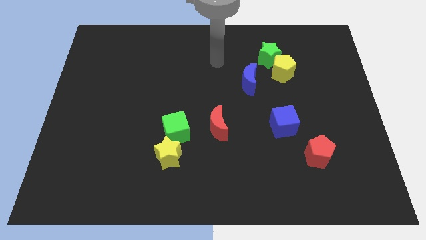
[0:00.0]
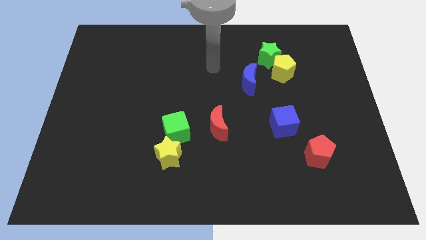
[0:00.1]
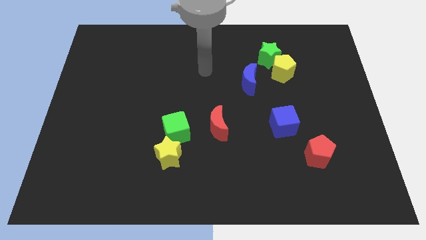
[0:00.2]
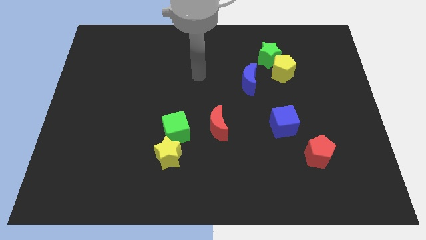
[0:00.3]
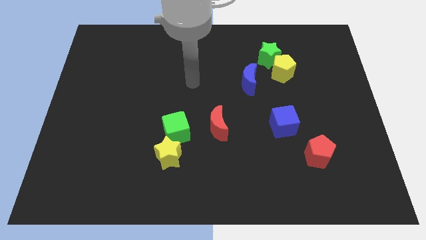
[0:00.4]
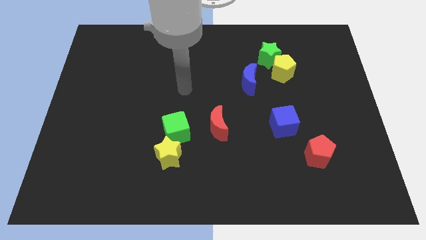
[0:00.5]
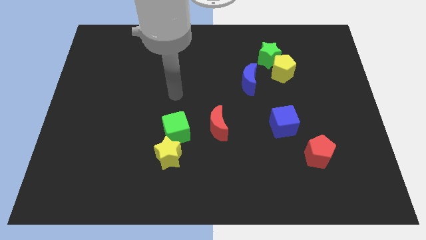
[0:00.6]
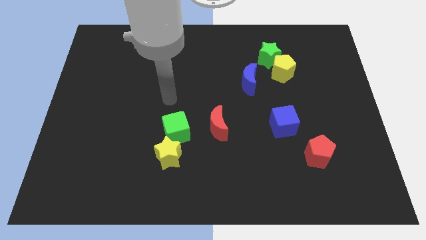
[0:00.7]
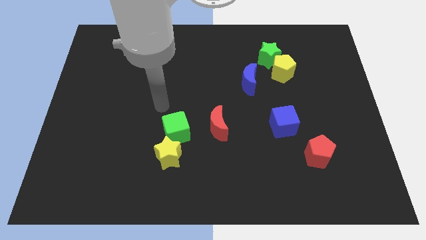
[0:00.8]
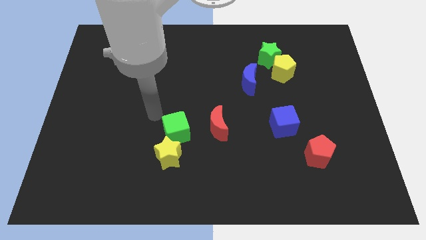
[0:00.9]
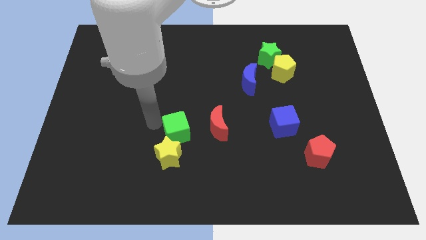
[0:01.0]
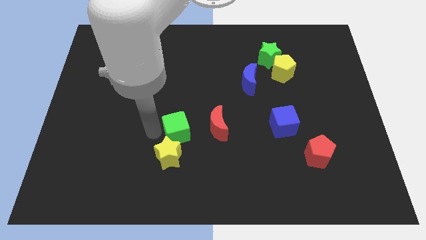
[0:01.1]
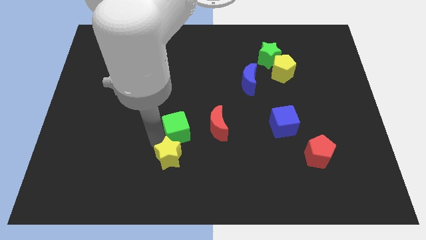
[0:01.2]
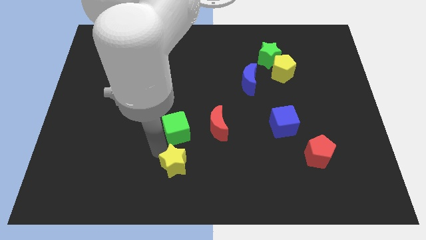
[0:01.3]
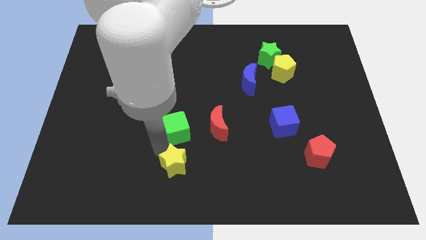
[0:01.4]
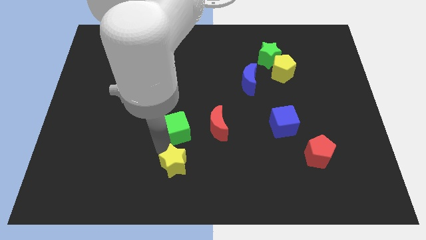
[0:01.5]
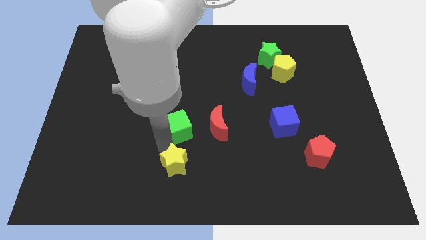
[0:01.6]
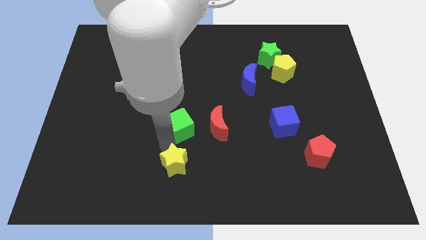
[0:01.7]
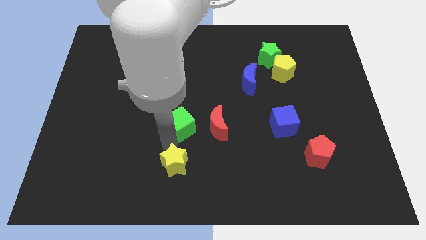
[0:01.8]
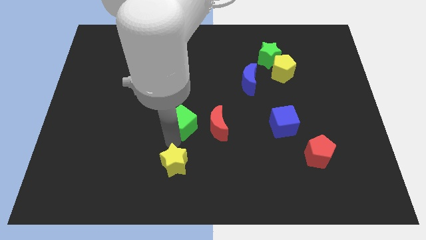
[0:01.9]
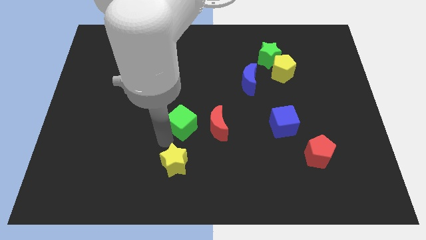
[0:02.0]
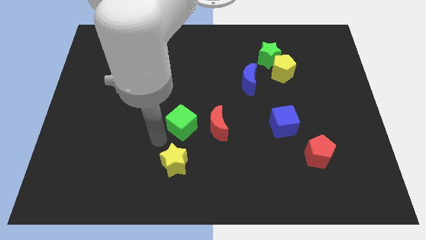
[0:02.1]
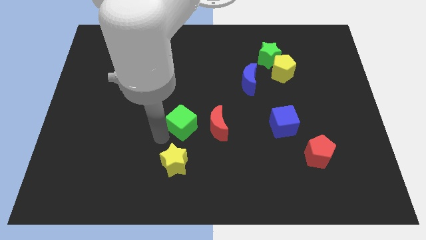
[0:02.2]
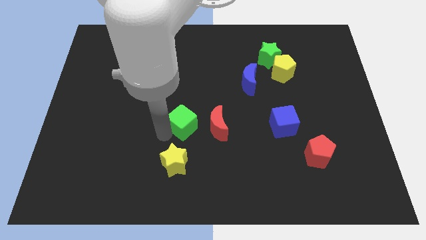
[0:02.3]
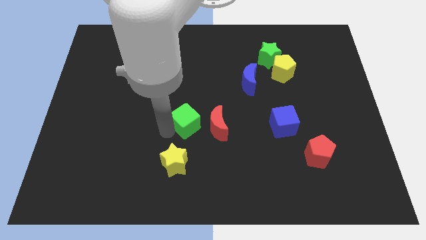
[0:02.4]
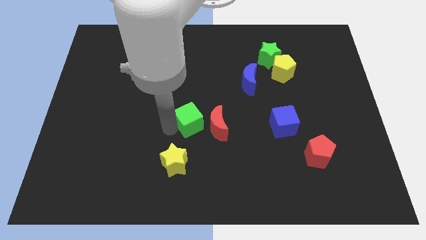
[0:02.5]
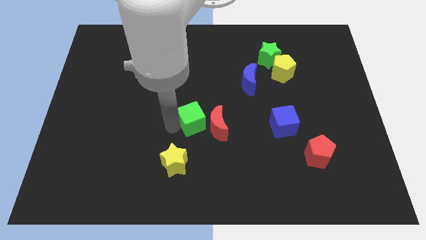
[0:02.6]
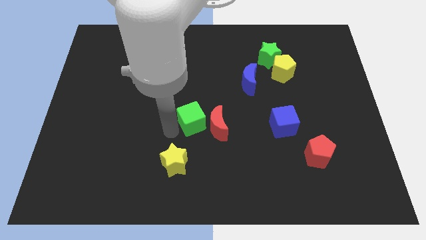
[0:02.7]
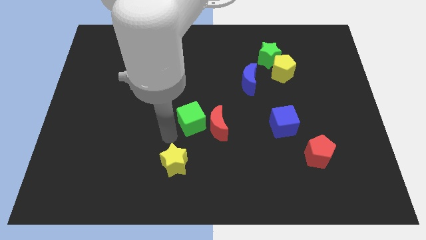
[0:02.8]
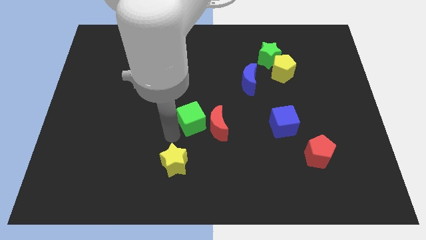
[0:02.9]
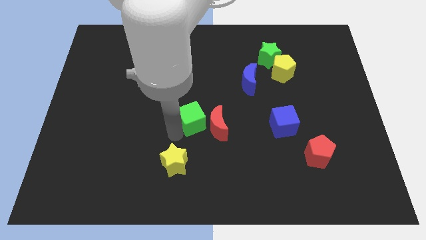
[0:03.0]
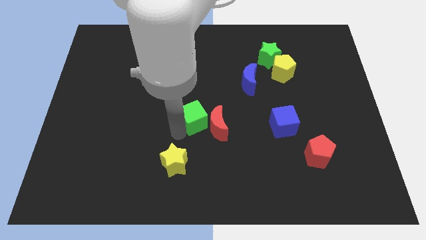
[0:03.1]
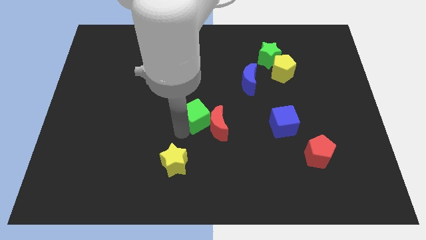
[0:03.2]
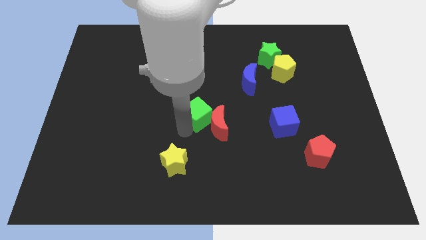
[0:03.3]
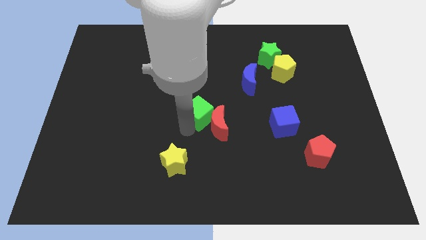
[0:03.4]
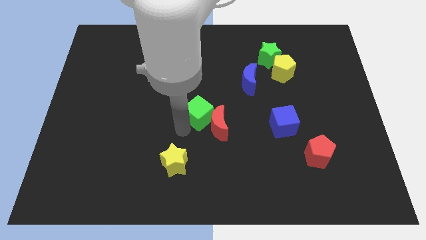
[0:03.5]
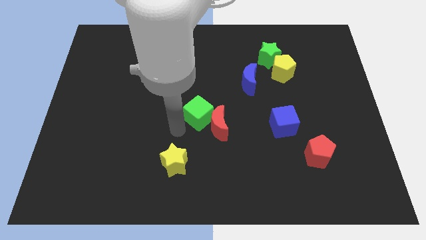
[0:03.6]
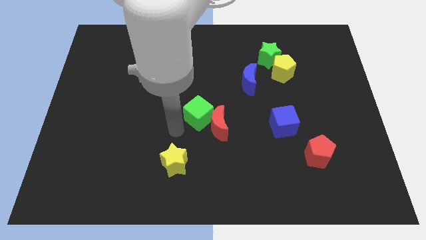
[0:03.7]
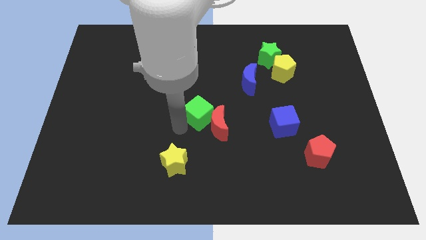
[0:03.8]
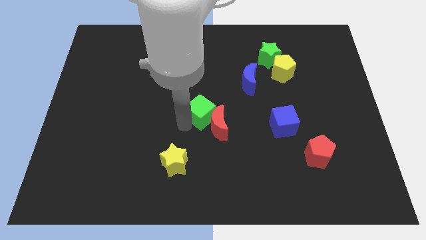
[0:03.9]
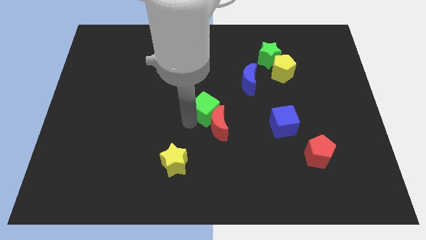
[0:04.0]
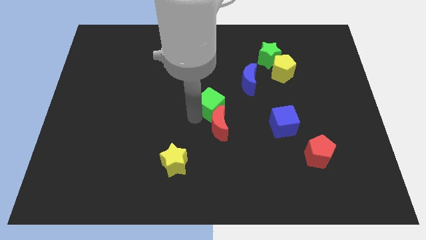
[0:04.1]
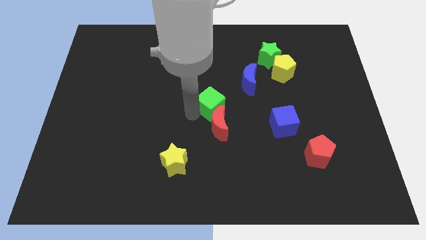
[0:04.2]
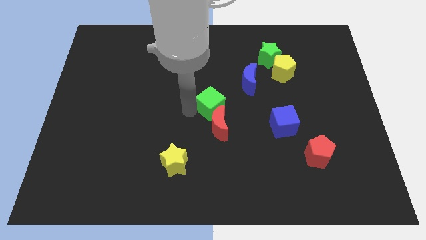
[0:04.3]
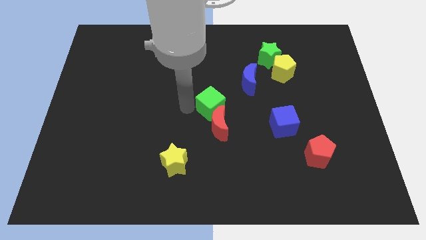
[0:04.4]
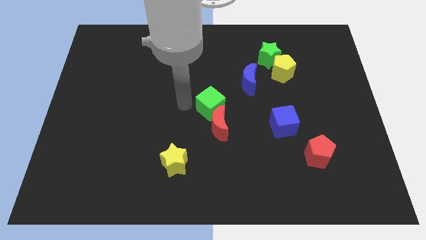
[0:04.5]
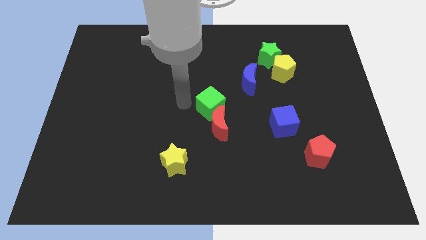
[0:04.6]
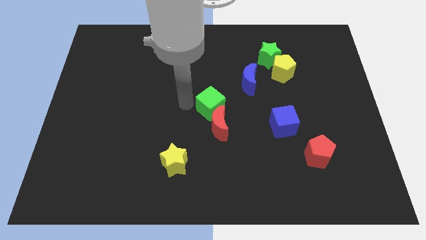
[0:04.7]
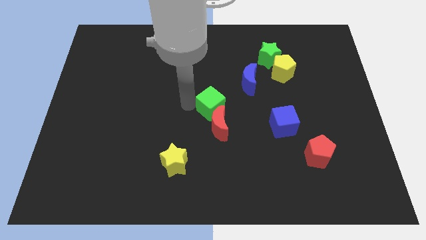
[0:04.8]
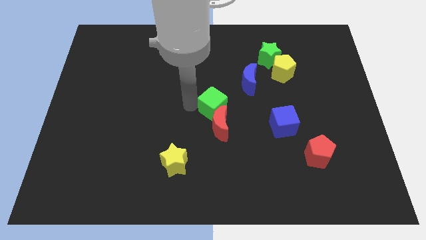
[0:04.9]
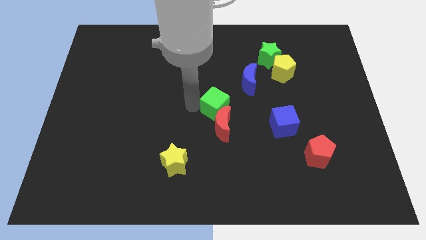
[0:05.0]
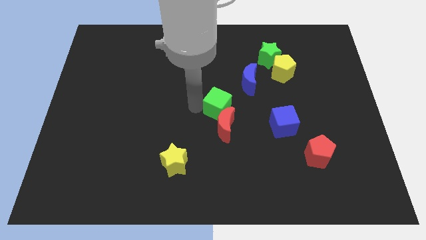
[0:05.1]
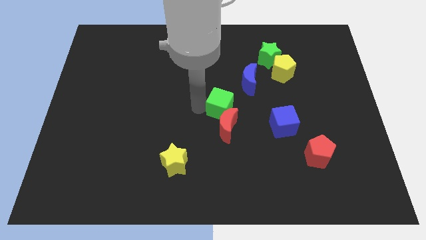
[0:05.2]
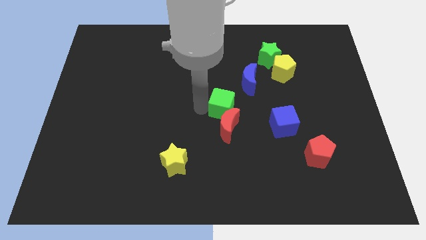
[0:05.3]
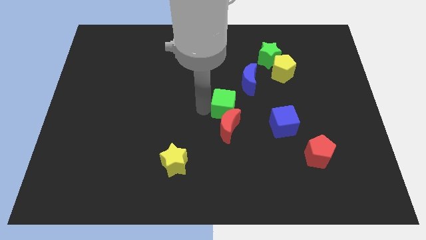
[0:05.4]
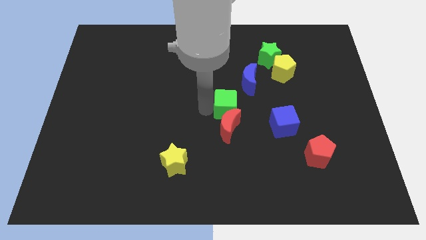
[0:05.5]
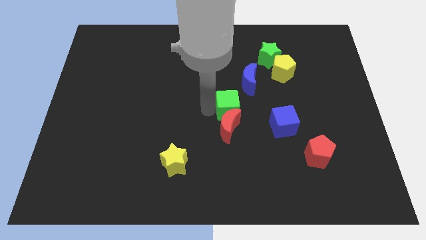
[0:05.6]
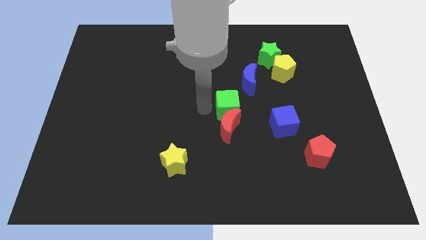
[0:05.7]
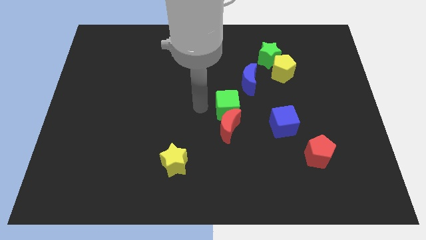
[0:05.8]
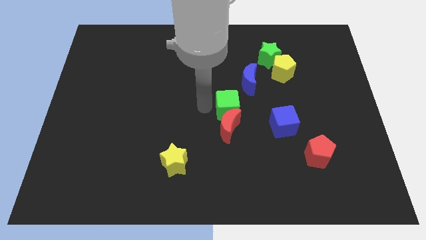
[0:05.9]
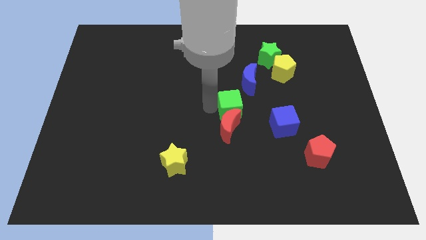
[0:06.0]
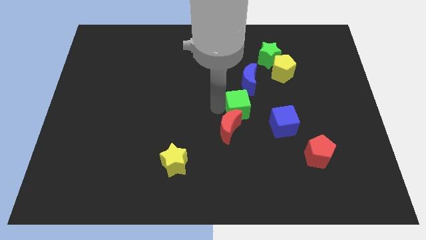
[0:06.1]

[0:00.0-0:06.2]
move the green cube to the top left side of the blue cube

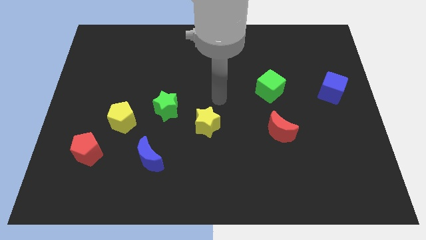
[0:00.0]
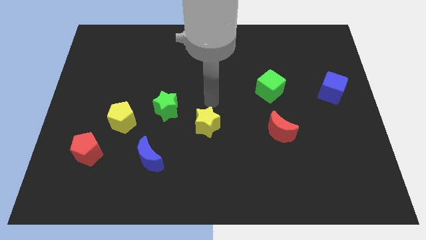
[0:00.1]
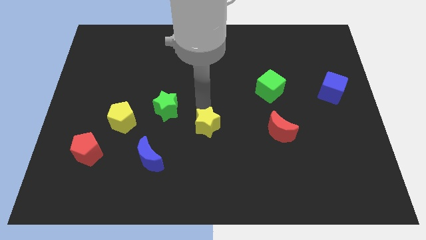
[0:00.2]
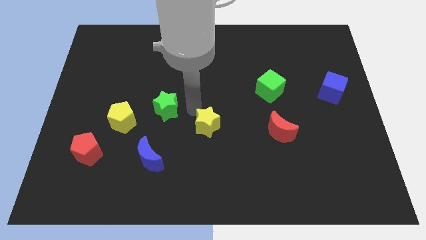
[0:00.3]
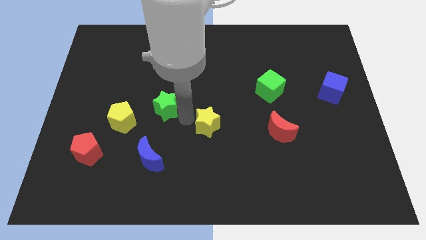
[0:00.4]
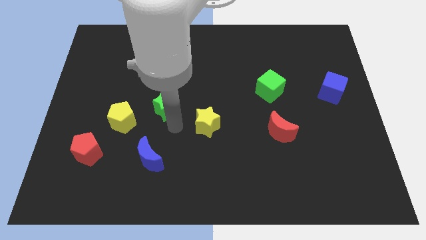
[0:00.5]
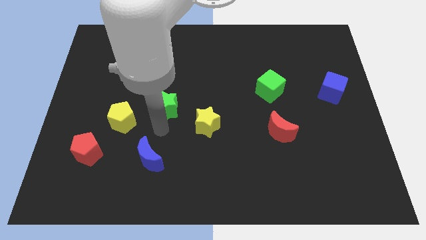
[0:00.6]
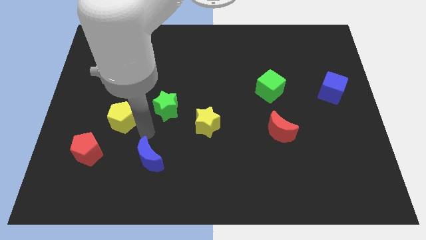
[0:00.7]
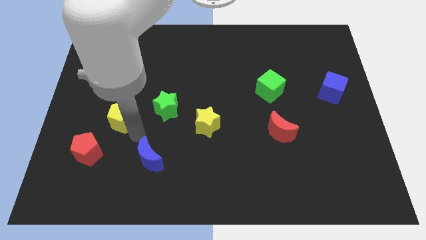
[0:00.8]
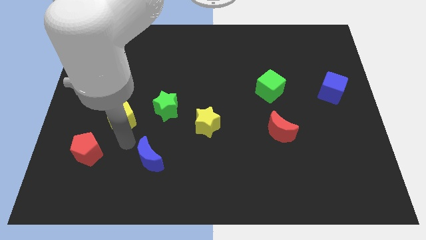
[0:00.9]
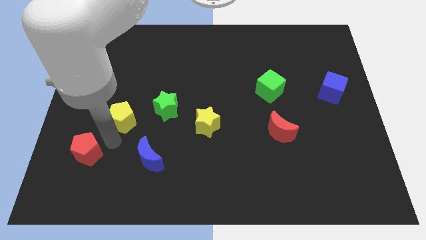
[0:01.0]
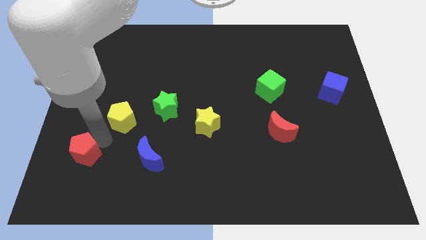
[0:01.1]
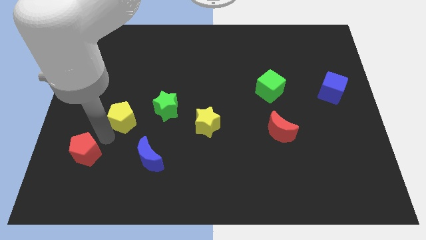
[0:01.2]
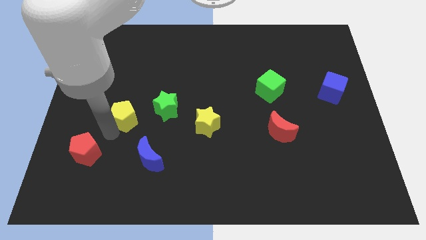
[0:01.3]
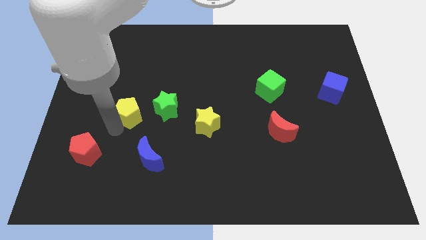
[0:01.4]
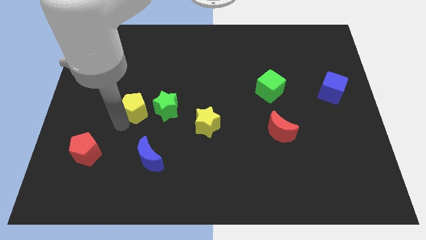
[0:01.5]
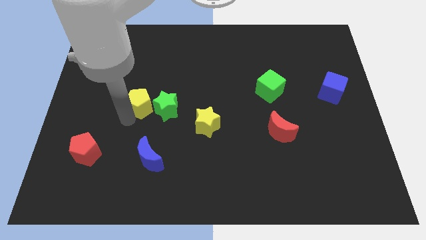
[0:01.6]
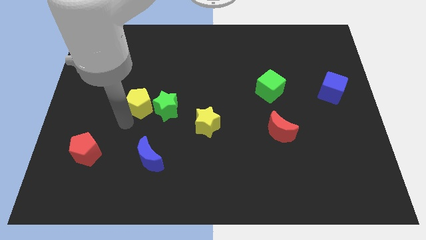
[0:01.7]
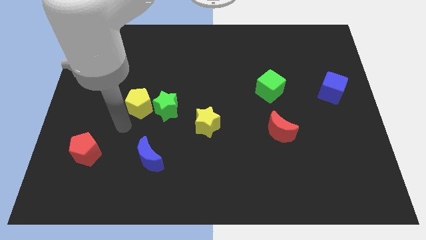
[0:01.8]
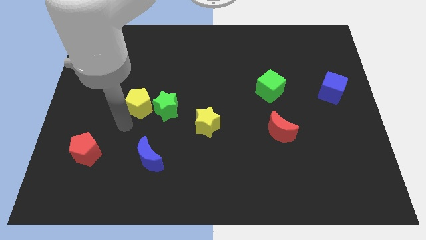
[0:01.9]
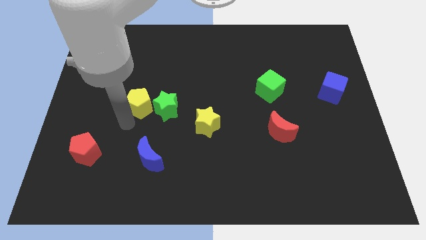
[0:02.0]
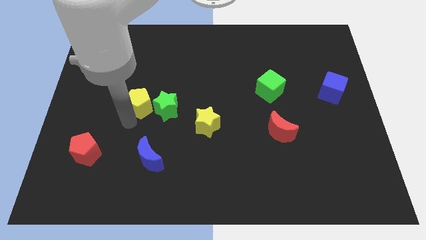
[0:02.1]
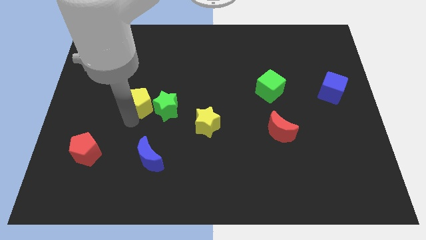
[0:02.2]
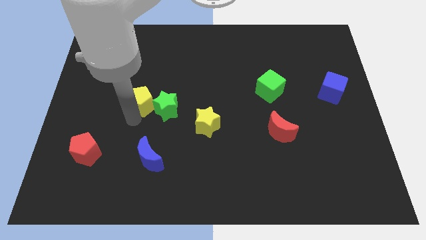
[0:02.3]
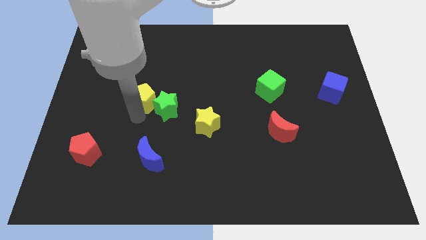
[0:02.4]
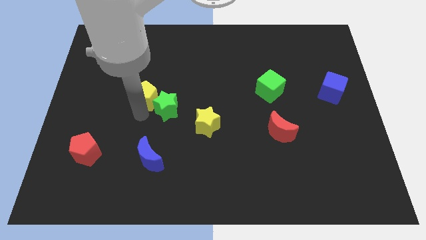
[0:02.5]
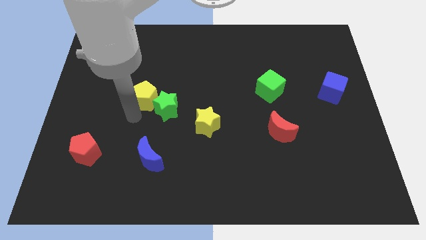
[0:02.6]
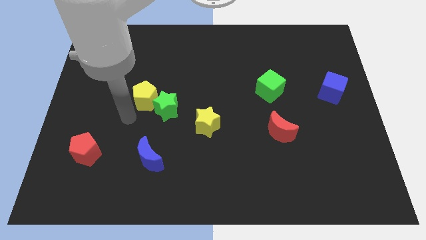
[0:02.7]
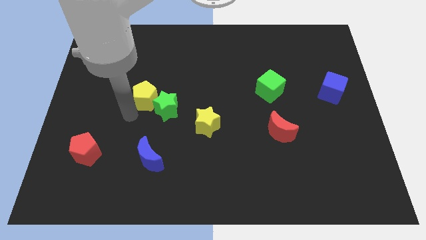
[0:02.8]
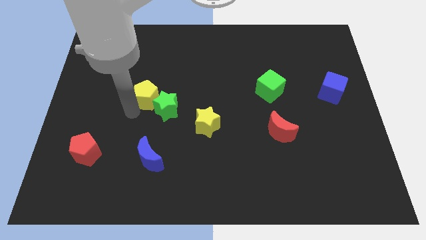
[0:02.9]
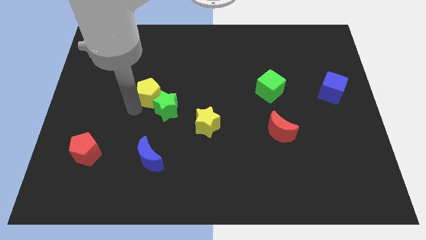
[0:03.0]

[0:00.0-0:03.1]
put the yellow pentagon to the top side of the green star
